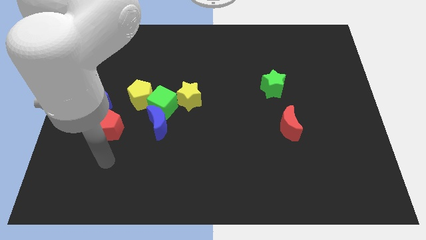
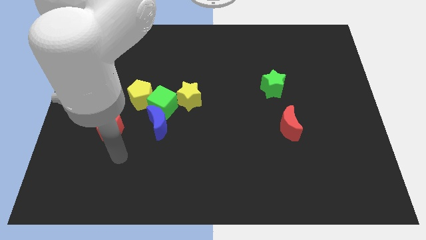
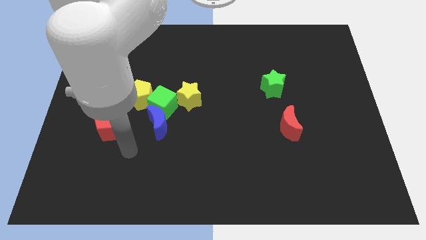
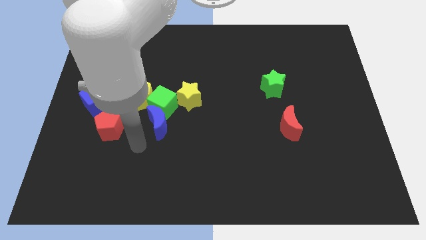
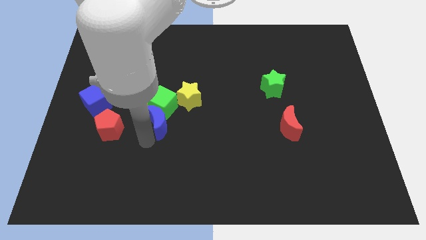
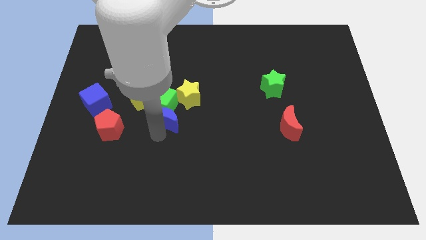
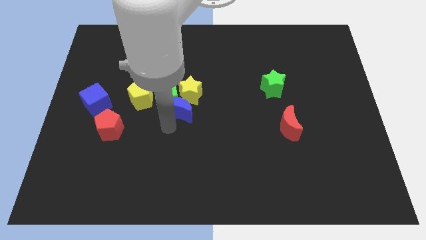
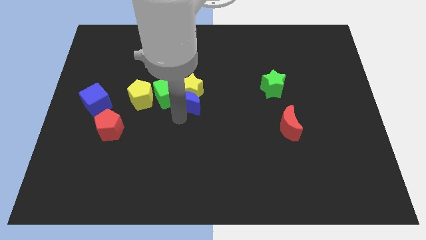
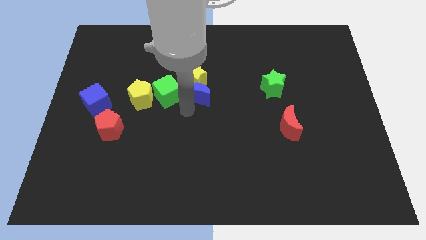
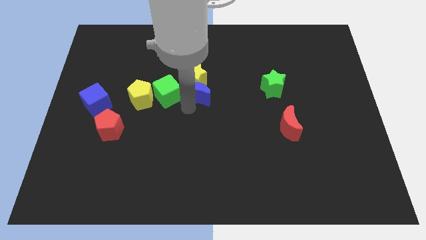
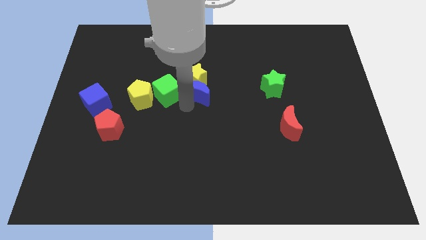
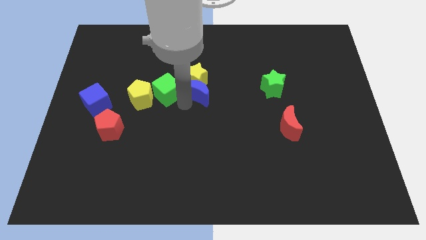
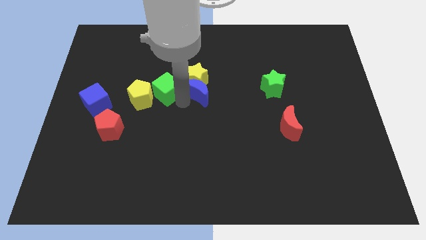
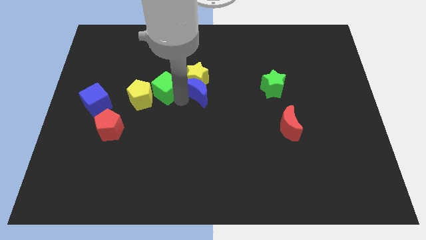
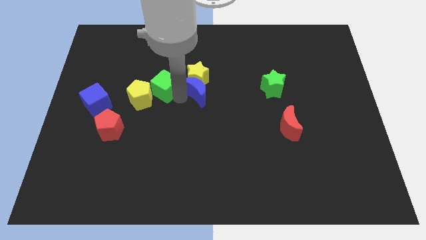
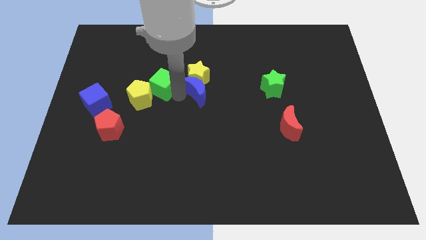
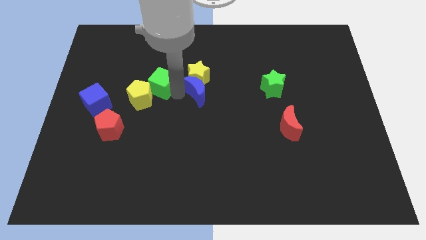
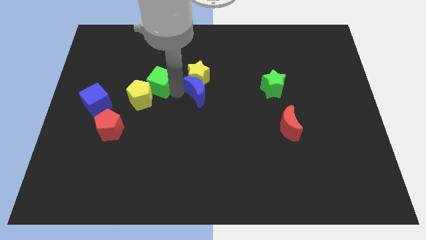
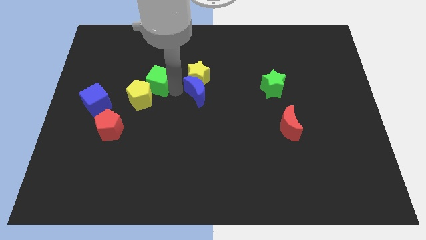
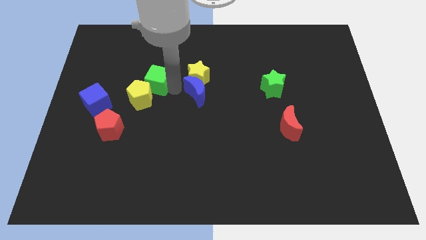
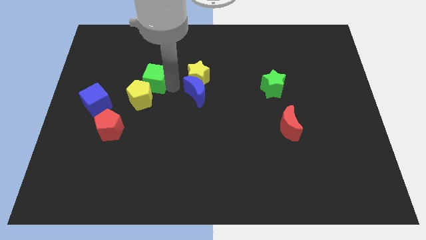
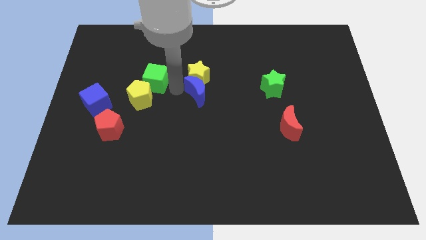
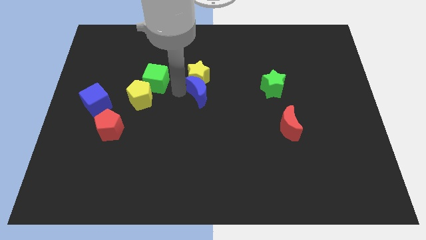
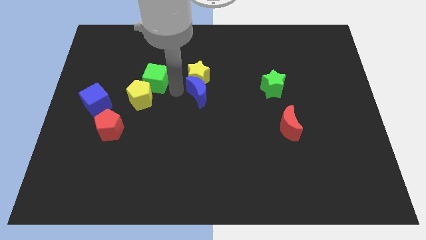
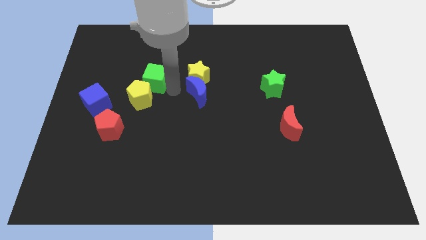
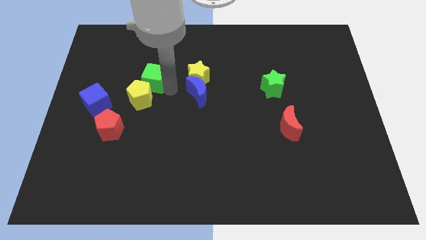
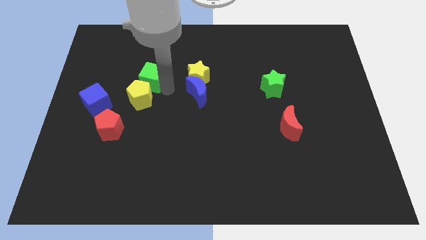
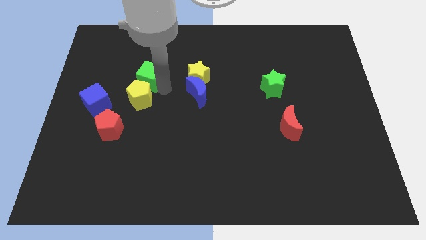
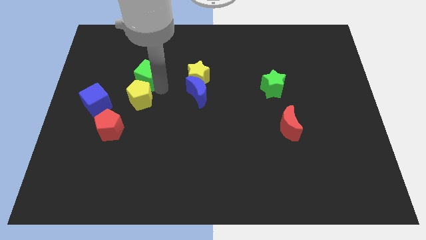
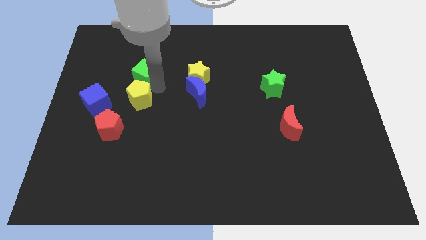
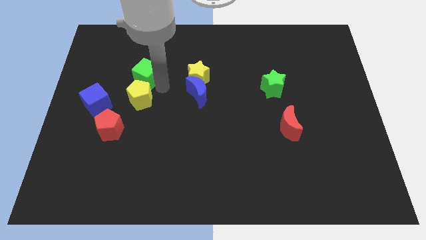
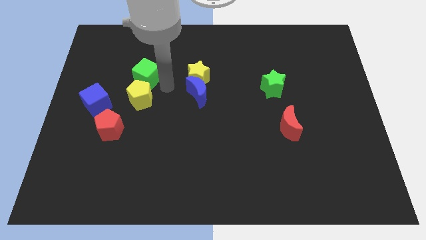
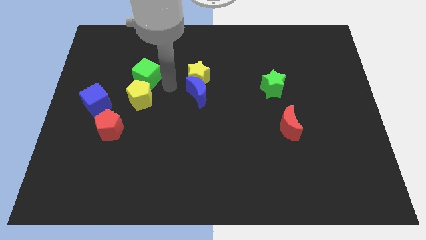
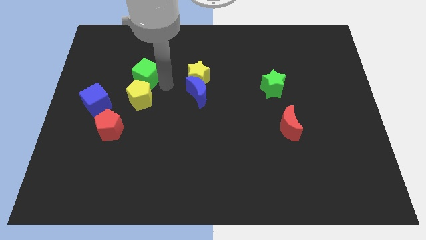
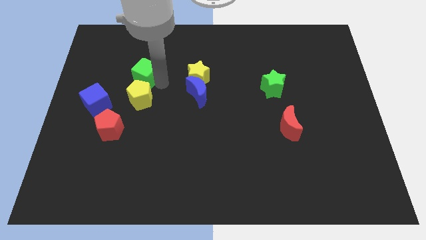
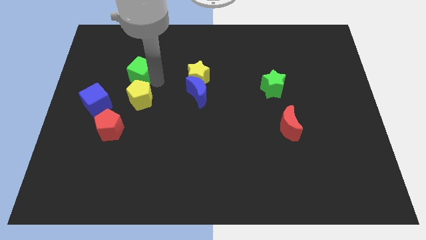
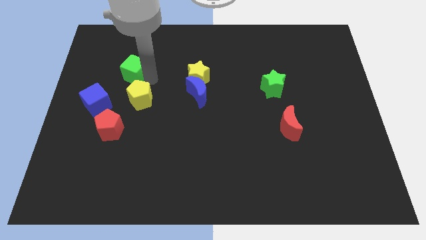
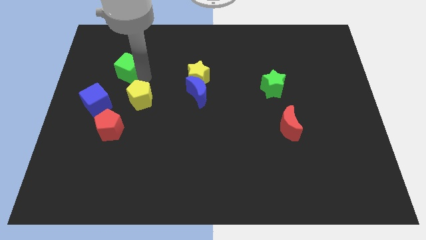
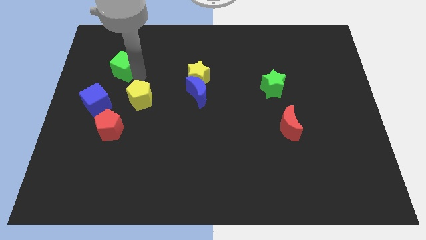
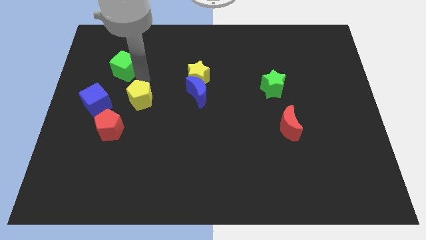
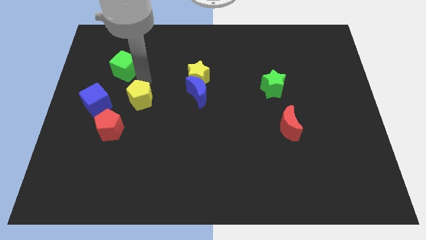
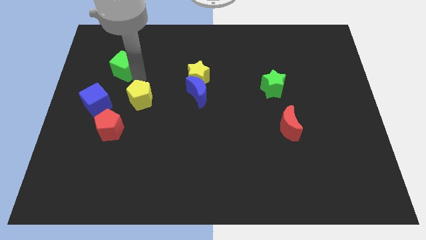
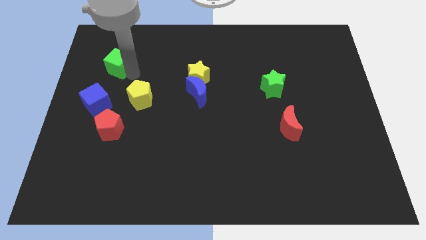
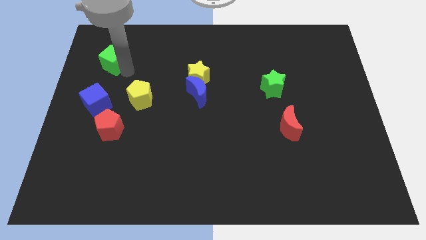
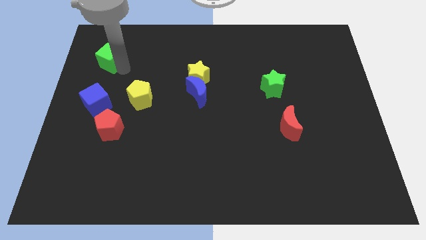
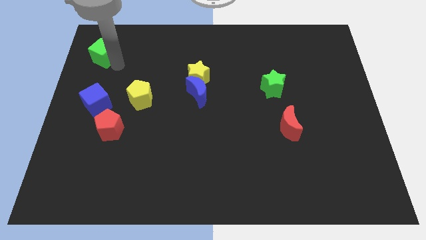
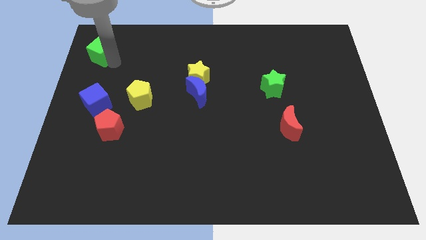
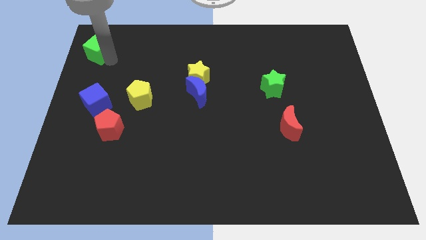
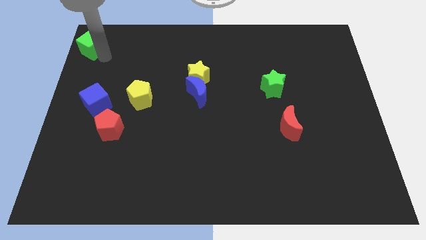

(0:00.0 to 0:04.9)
push the green cube to the top left corner

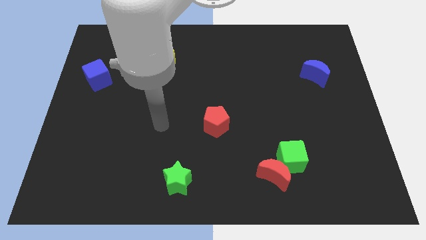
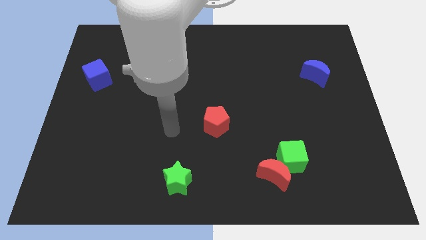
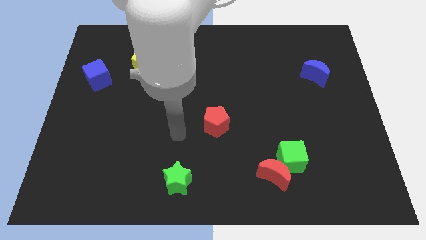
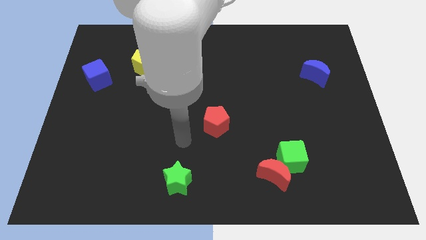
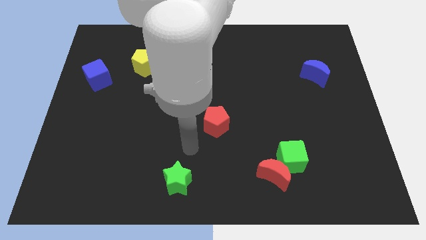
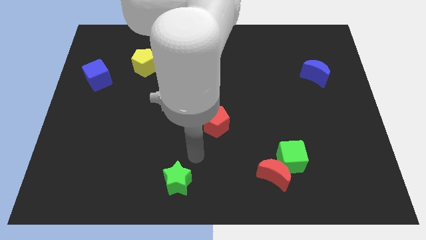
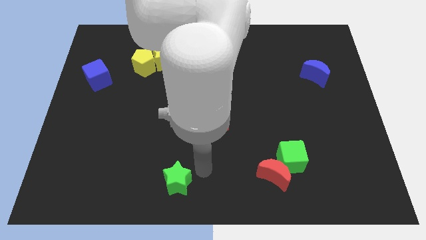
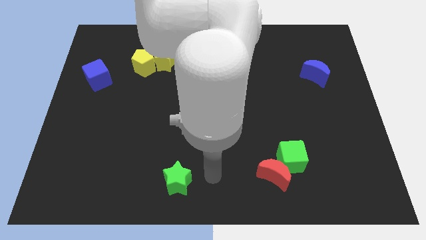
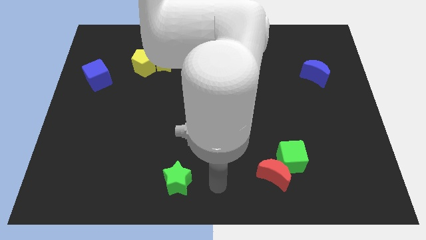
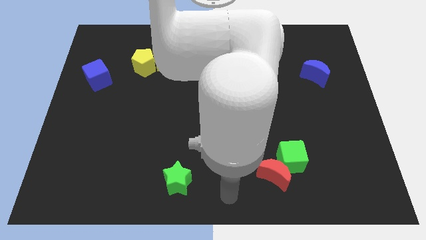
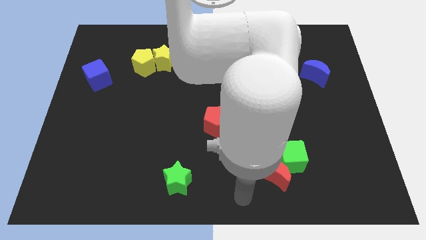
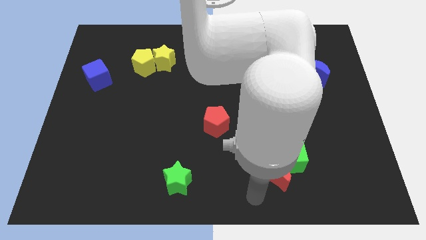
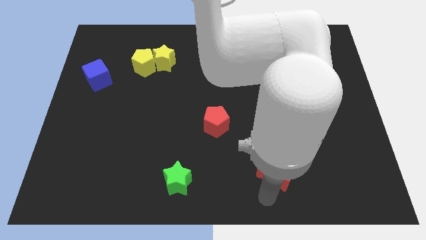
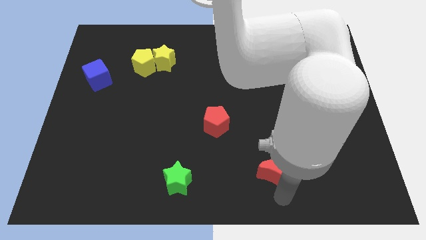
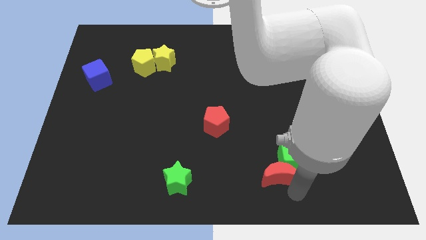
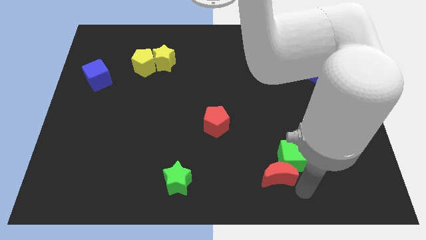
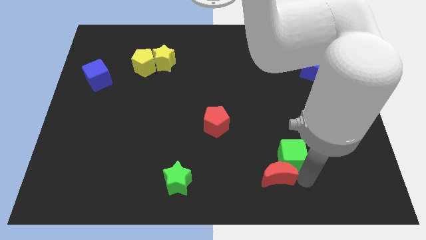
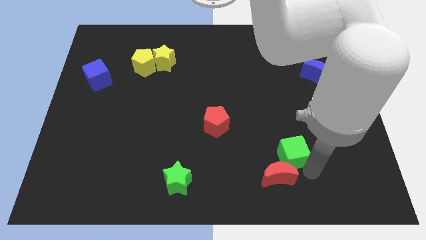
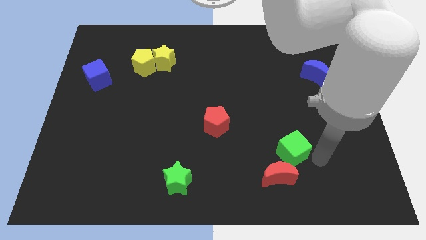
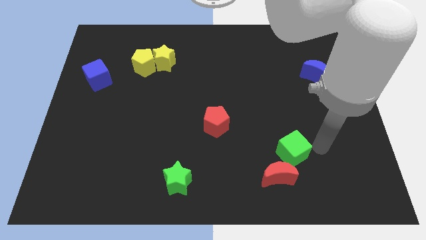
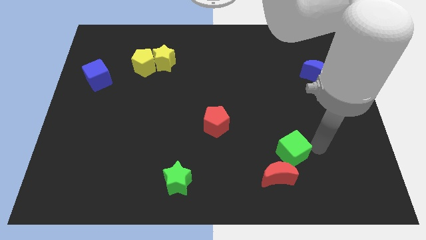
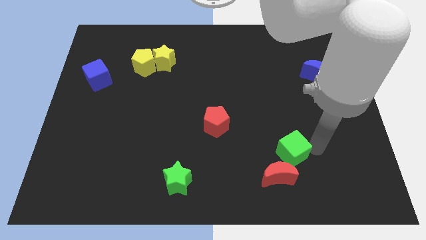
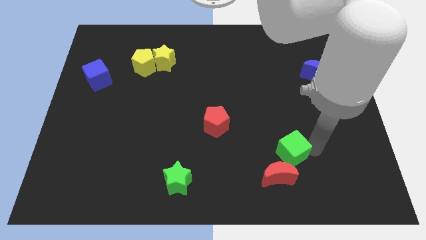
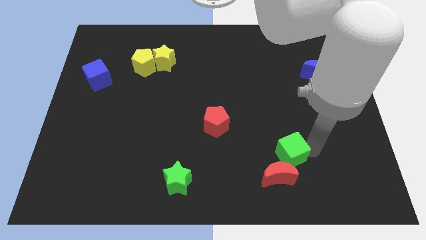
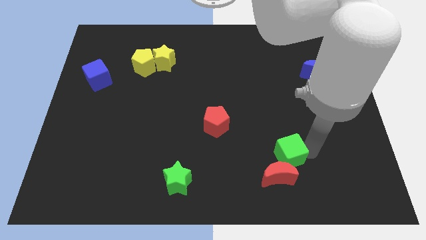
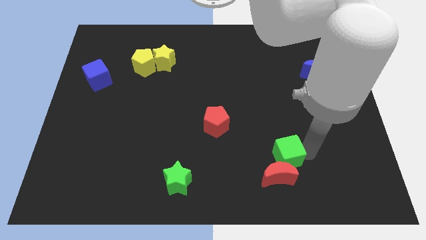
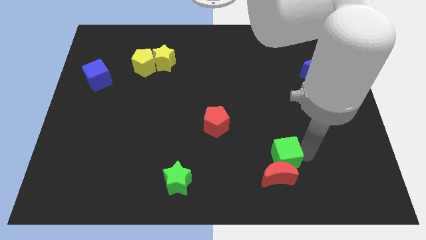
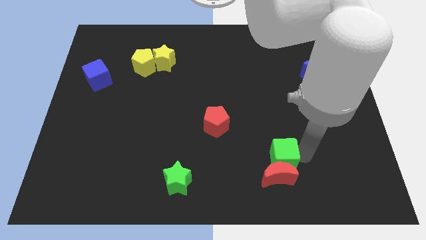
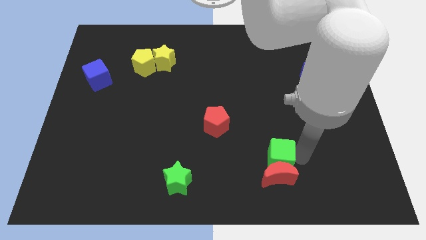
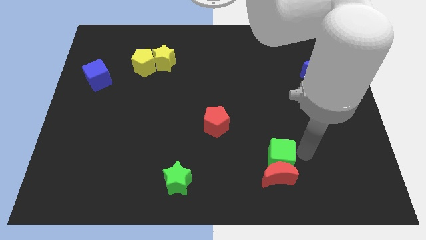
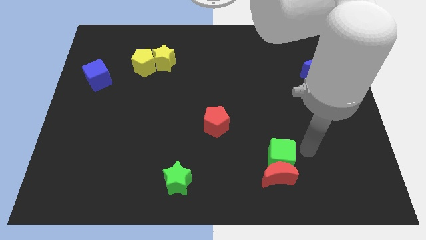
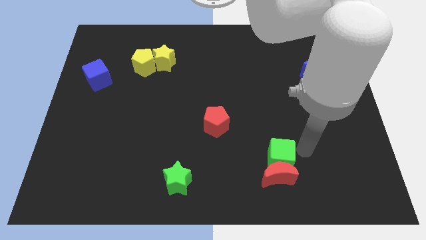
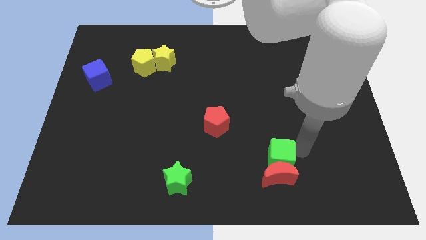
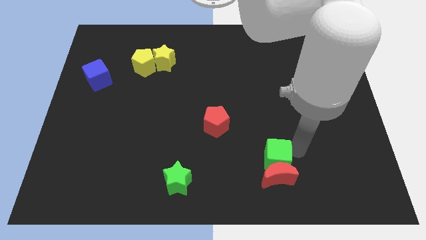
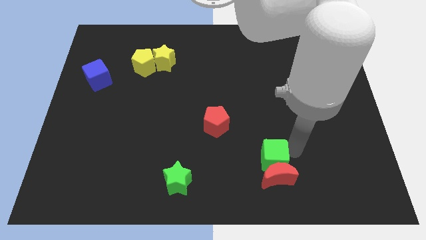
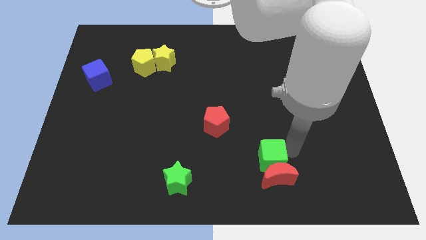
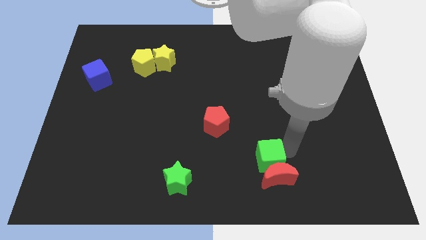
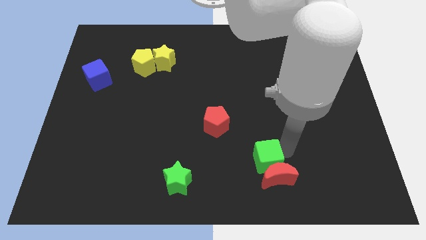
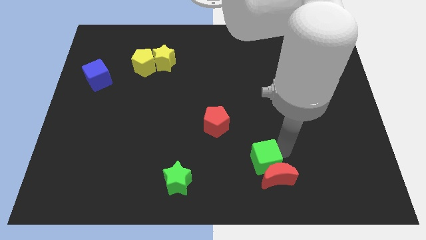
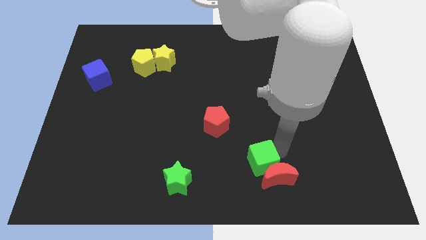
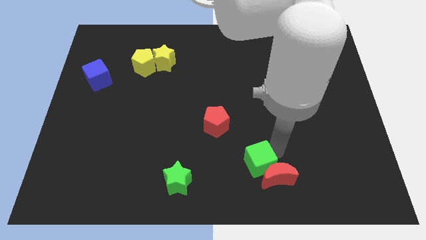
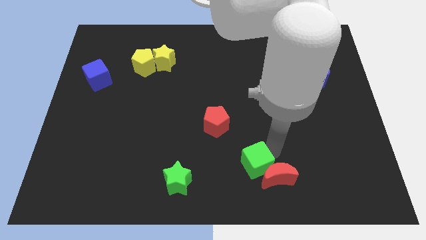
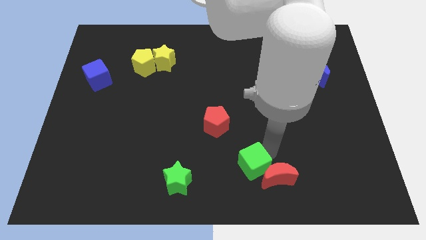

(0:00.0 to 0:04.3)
put the green cube to the bottom
